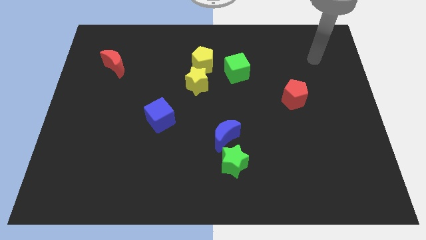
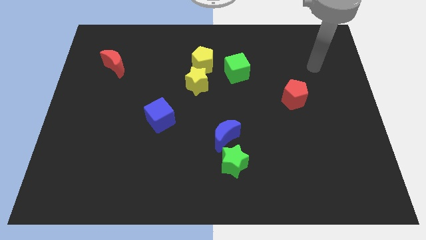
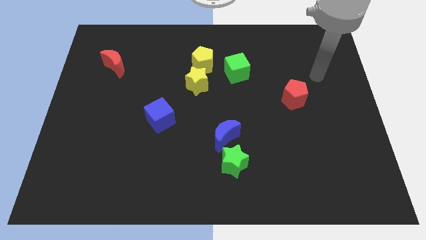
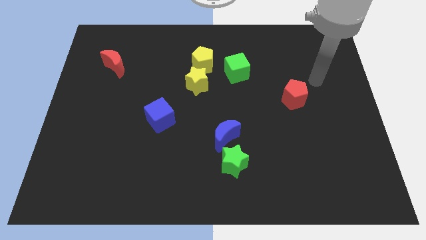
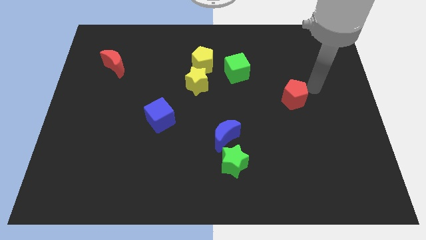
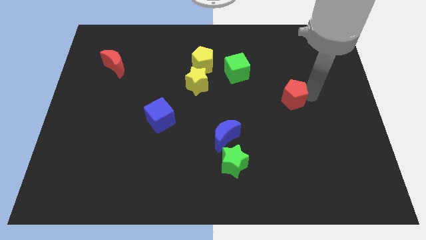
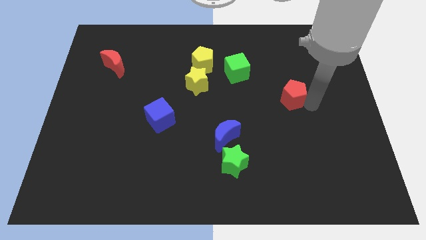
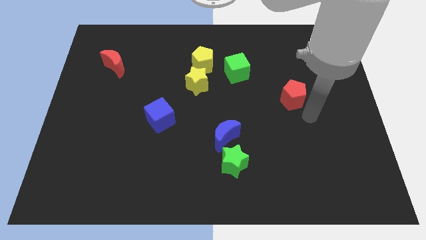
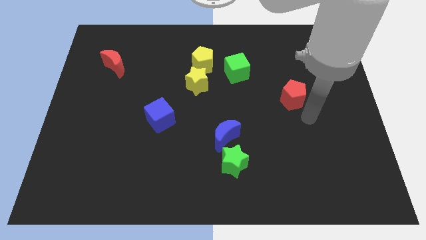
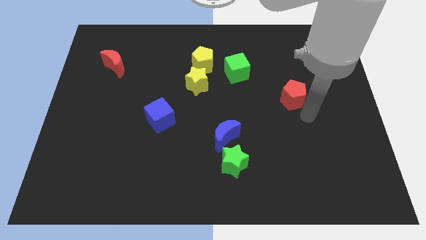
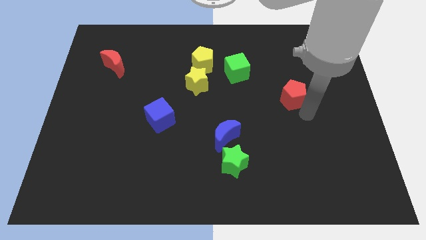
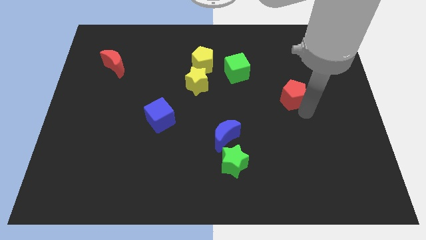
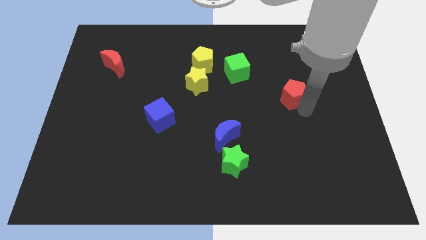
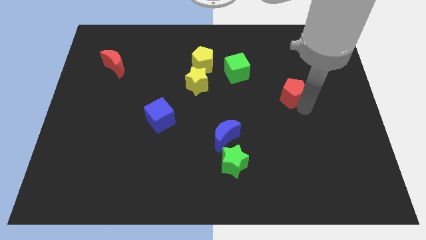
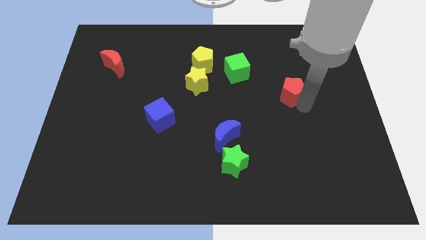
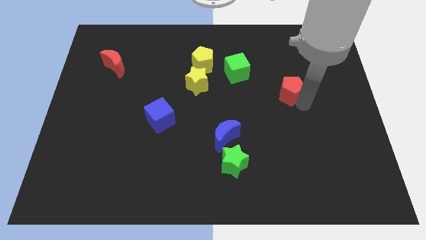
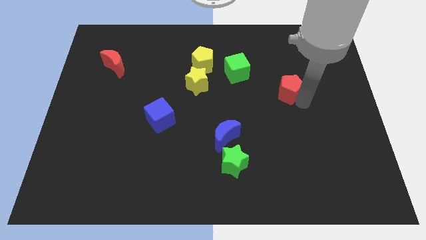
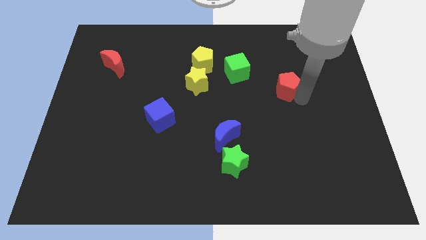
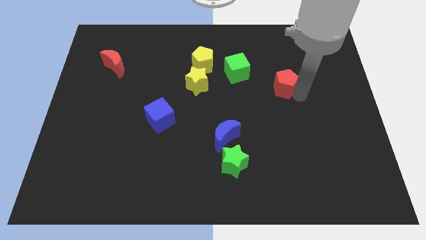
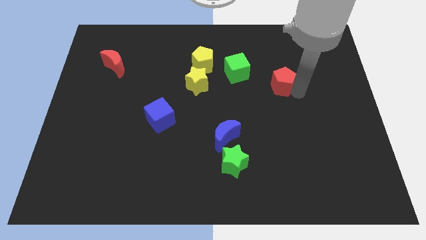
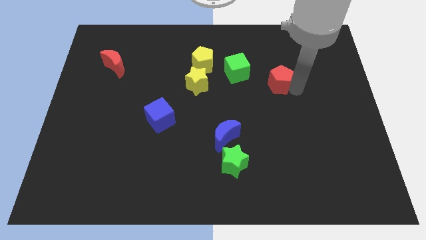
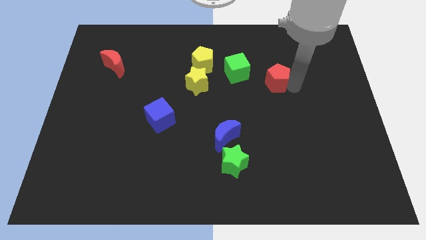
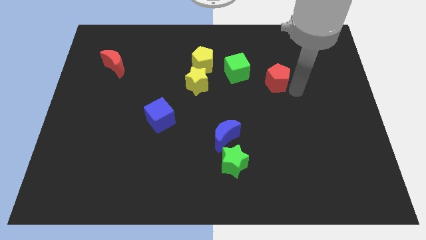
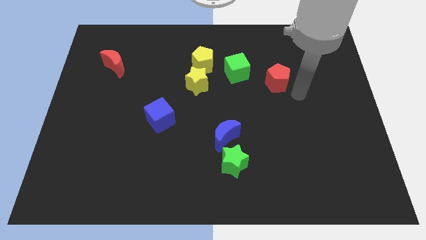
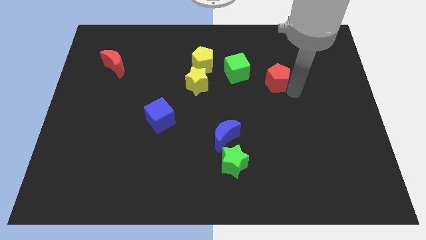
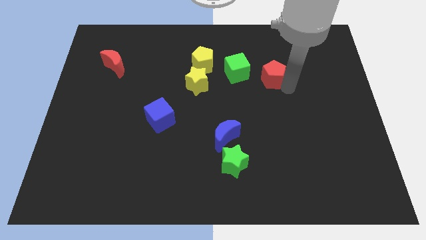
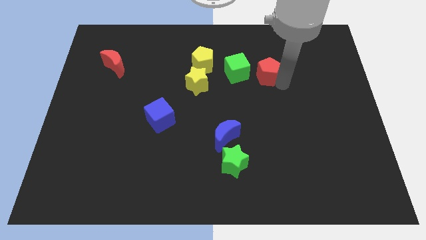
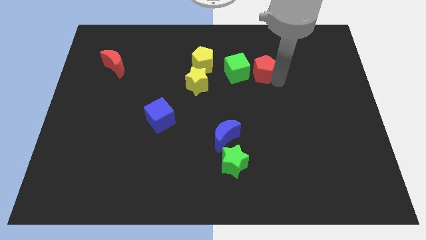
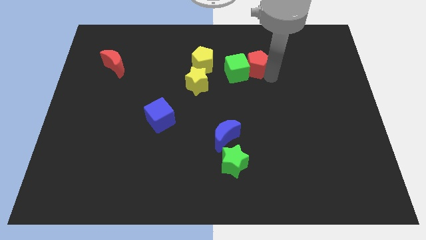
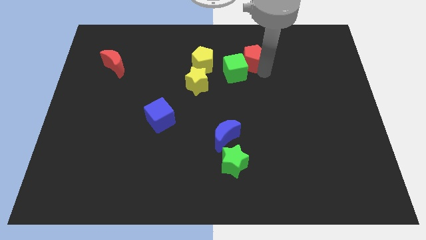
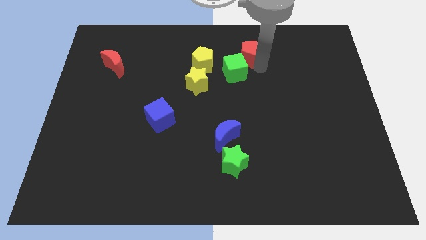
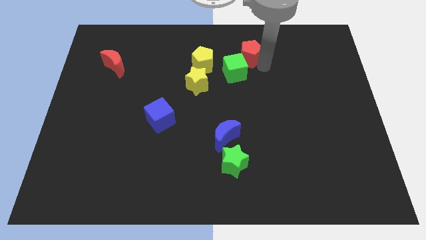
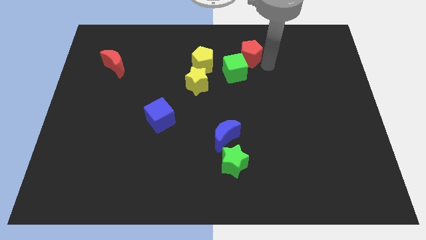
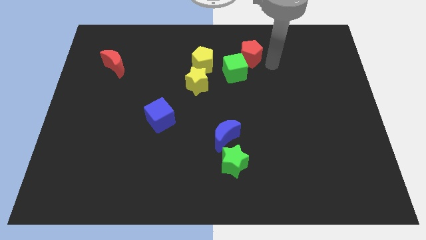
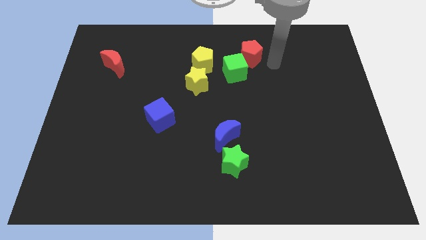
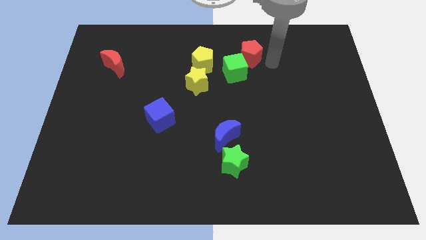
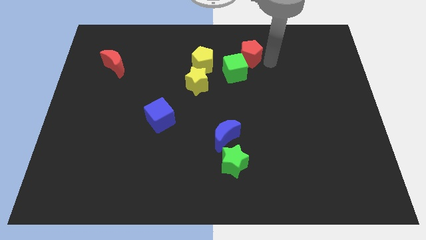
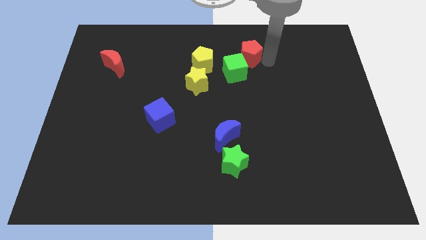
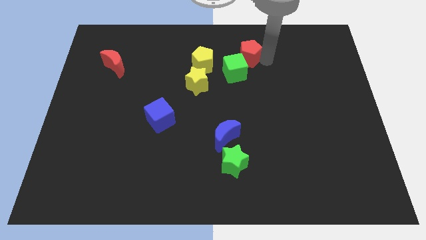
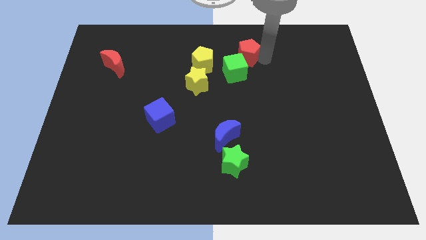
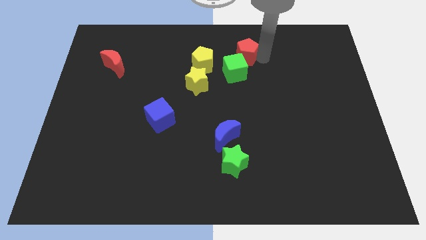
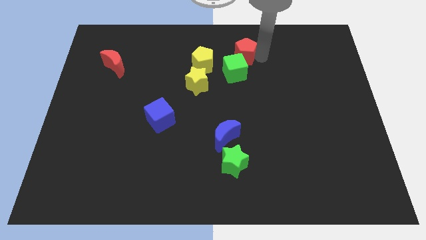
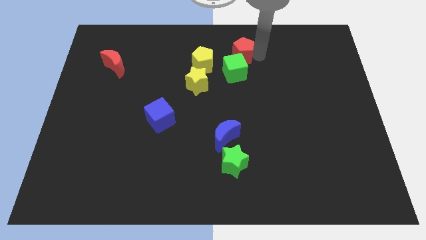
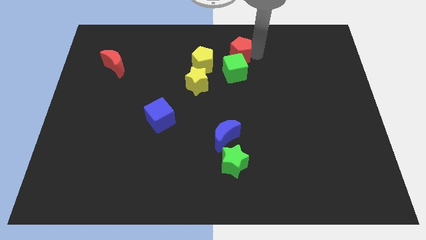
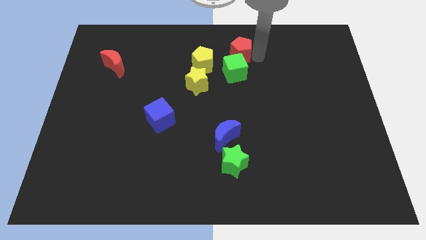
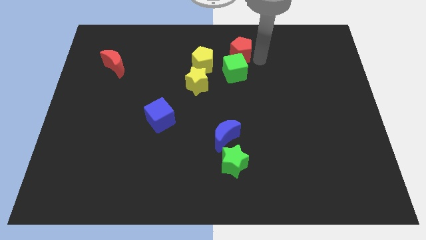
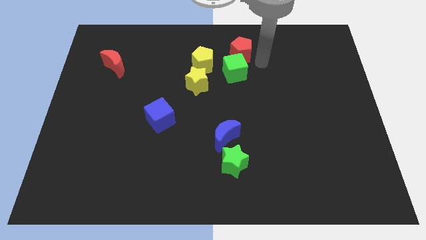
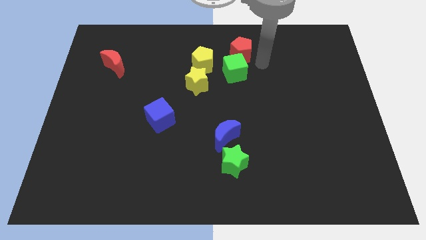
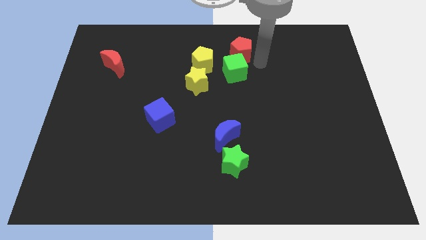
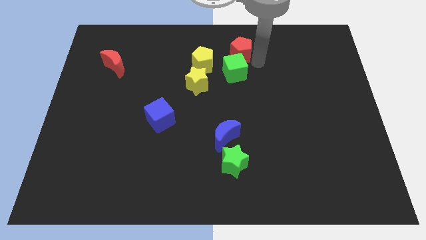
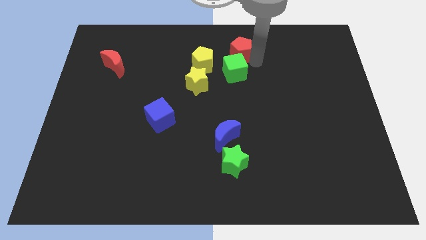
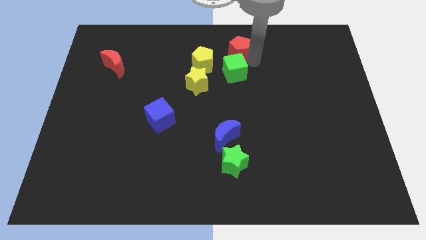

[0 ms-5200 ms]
put the red pentagon to the top
